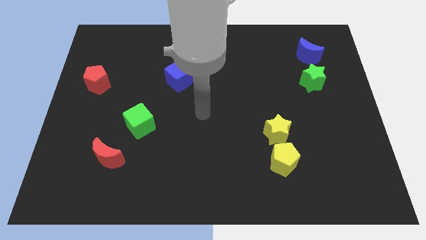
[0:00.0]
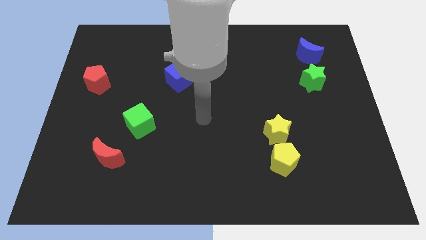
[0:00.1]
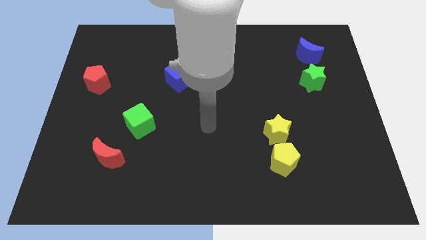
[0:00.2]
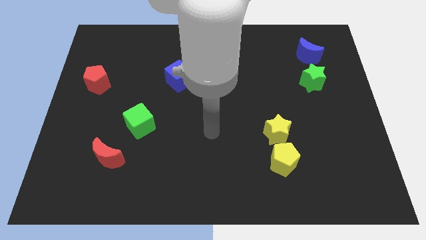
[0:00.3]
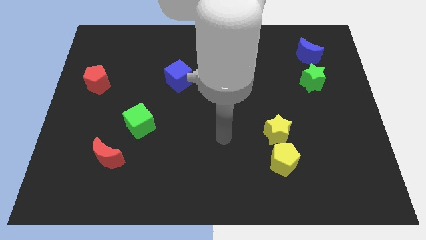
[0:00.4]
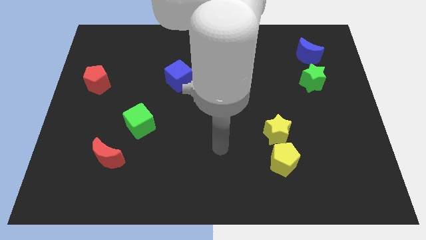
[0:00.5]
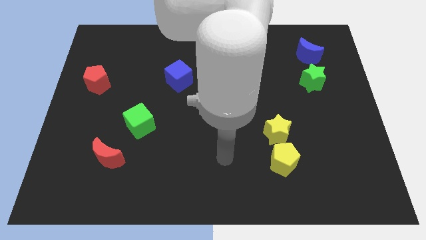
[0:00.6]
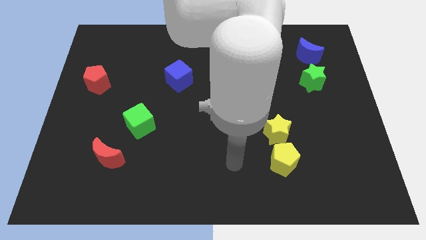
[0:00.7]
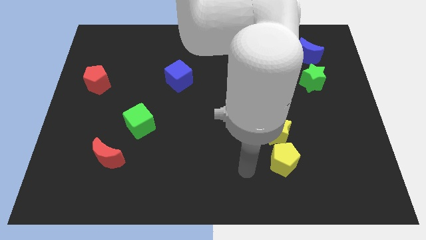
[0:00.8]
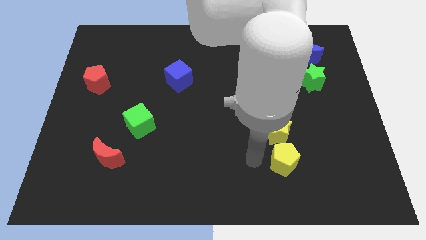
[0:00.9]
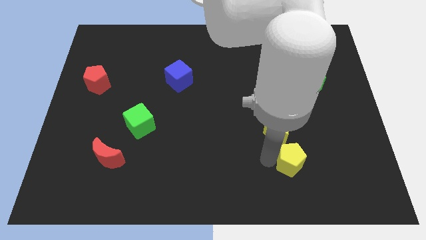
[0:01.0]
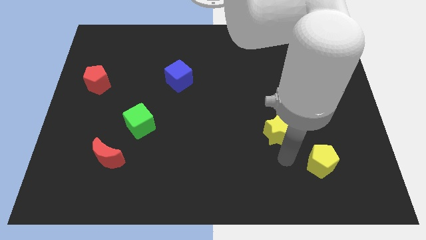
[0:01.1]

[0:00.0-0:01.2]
separate the yellow star from the yellow pentagon

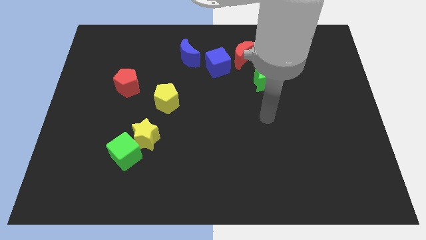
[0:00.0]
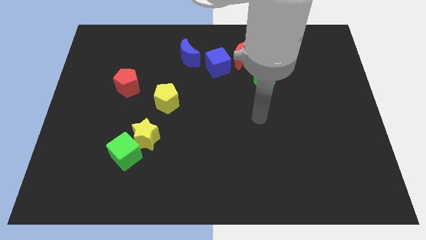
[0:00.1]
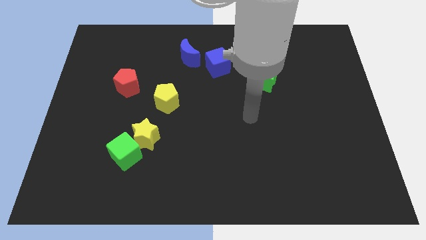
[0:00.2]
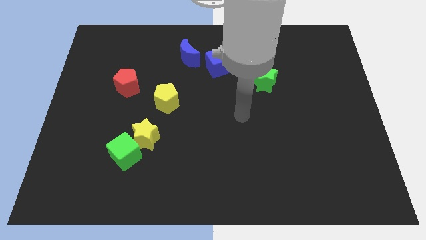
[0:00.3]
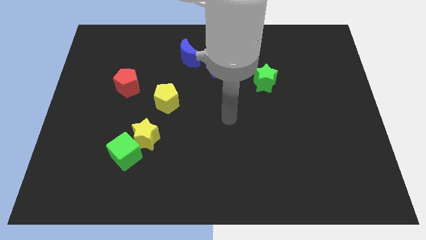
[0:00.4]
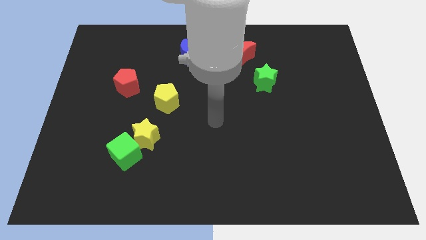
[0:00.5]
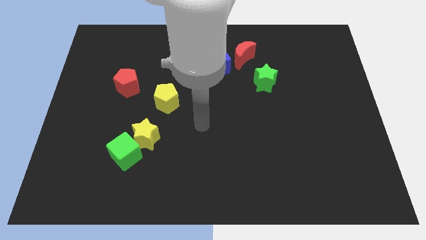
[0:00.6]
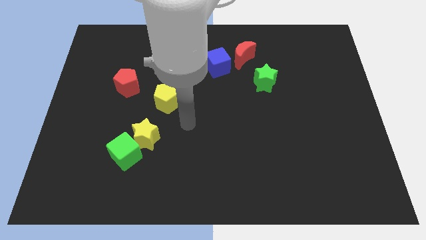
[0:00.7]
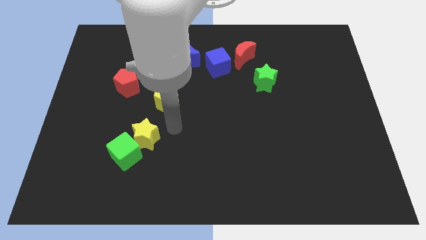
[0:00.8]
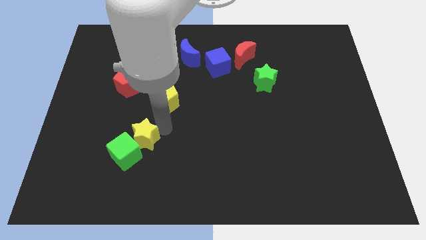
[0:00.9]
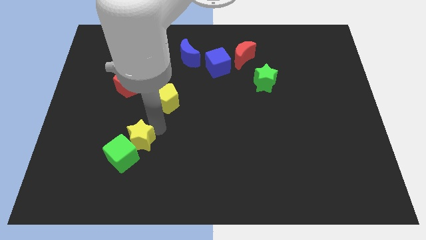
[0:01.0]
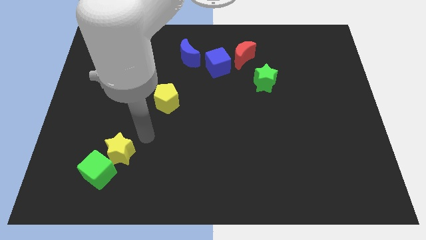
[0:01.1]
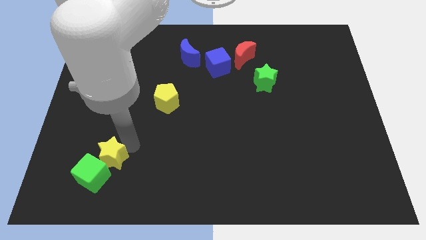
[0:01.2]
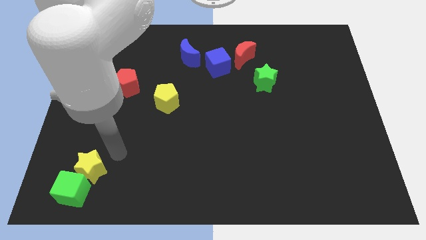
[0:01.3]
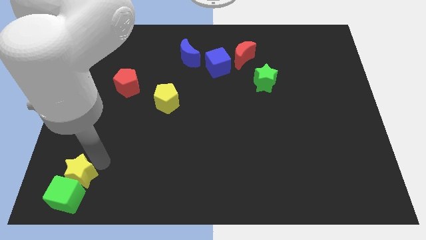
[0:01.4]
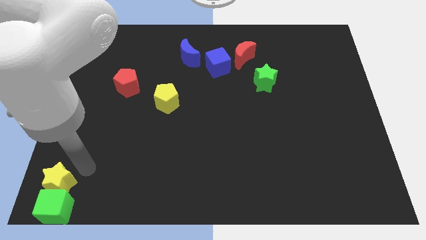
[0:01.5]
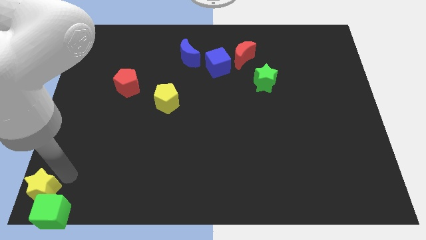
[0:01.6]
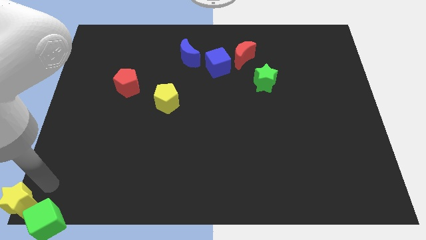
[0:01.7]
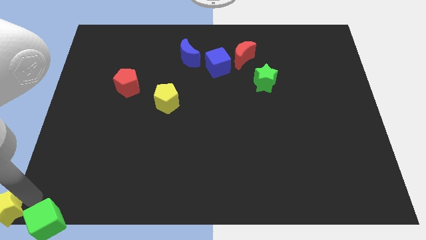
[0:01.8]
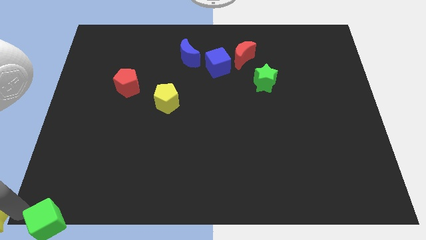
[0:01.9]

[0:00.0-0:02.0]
pull the green cube apart from the yellow star

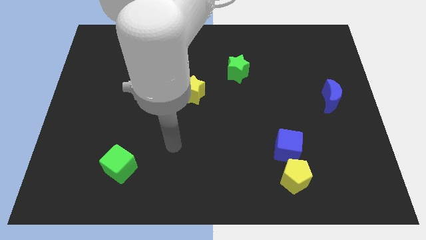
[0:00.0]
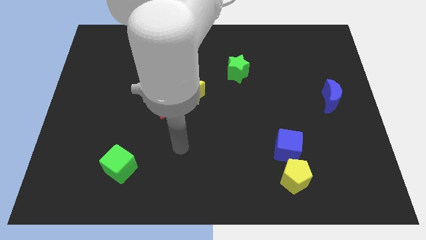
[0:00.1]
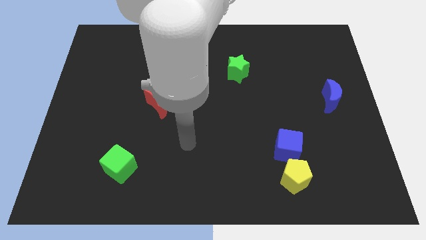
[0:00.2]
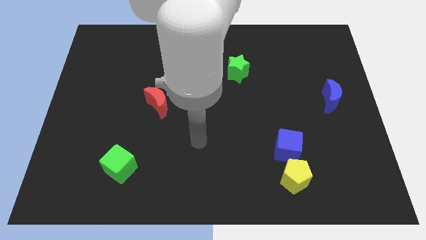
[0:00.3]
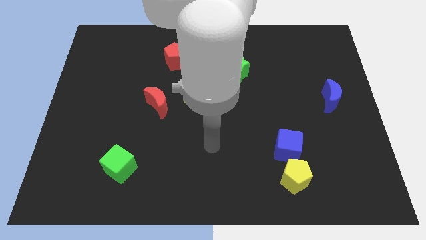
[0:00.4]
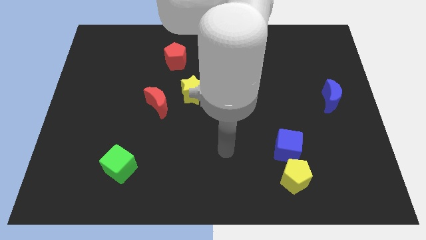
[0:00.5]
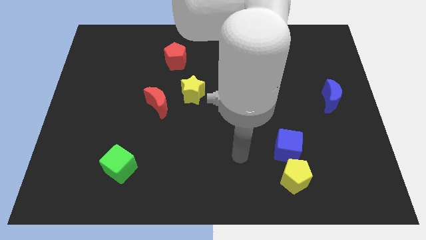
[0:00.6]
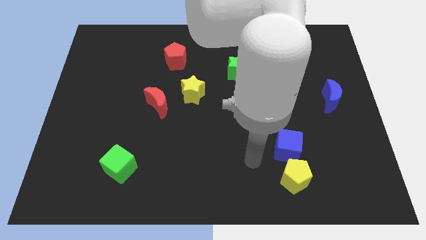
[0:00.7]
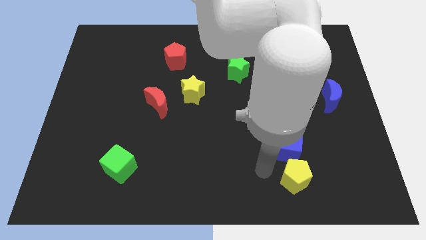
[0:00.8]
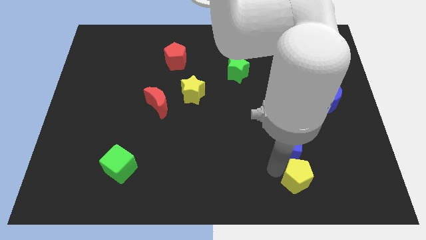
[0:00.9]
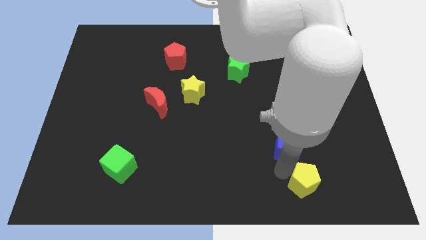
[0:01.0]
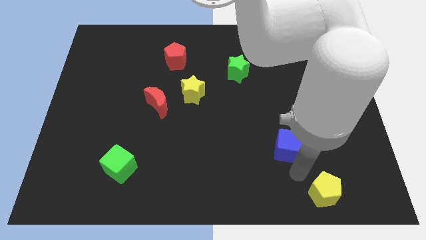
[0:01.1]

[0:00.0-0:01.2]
pull the blue cube apart from the yellow pentagon

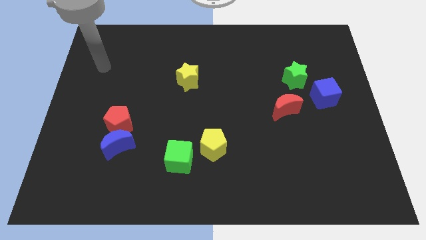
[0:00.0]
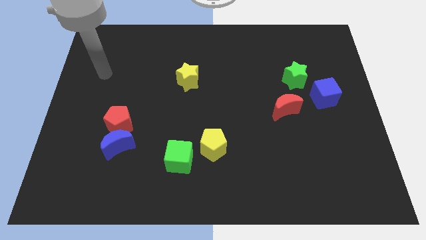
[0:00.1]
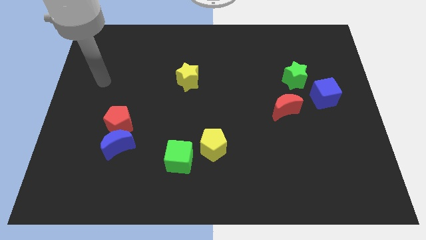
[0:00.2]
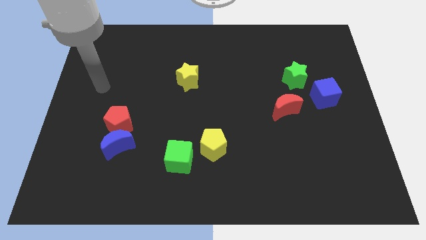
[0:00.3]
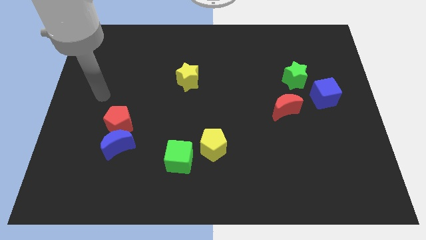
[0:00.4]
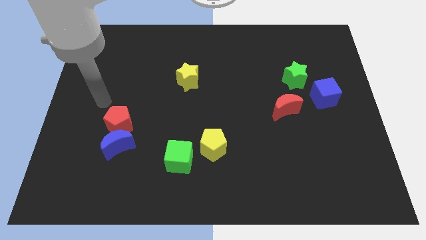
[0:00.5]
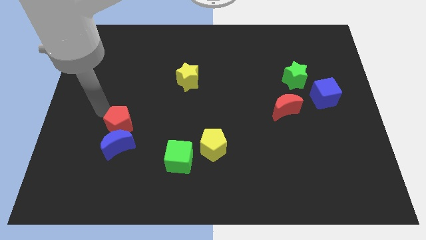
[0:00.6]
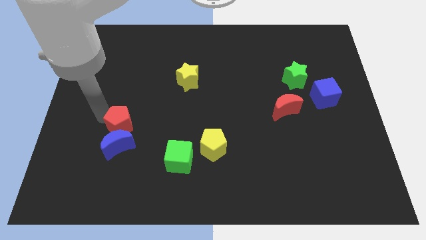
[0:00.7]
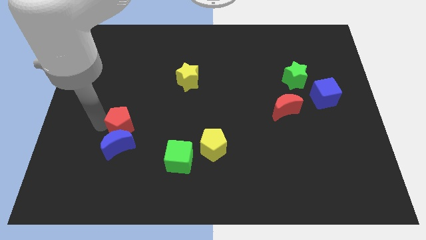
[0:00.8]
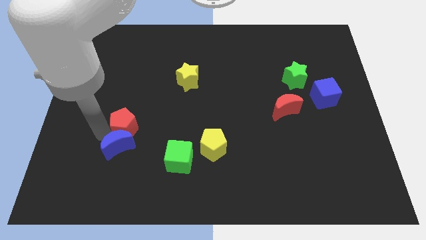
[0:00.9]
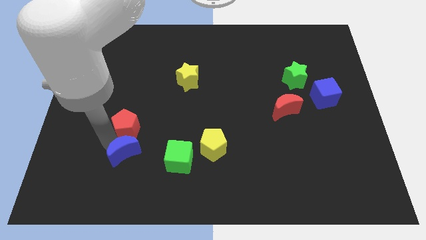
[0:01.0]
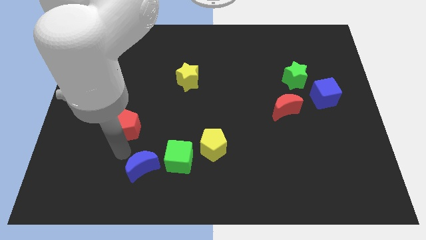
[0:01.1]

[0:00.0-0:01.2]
move the red pentagon away from the blue moon

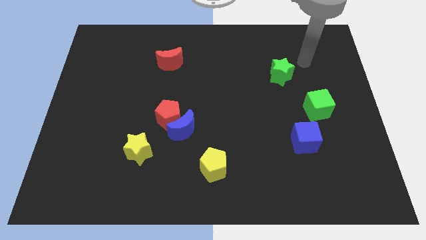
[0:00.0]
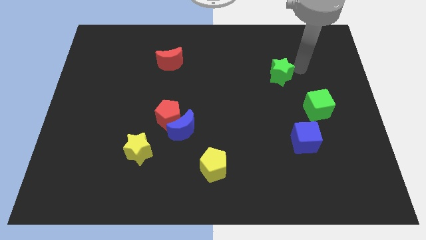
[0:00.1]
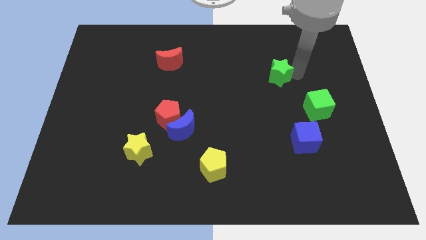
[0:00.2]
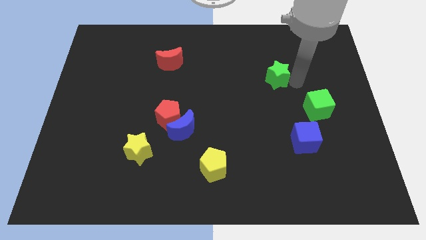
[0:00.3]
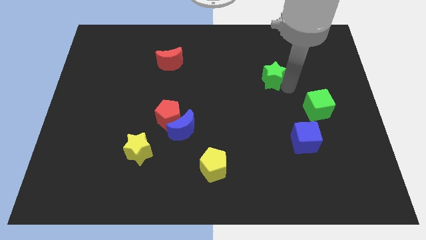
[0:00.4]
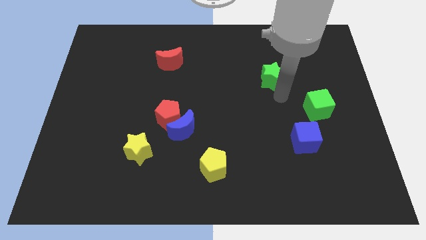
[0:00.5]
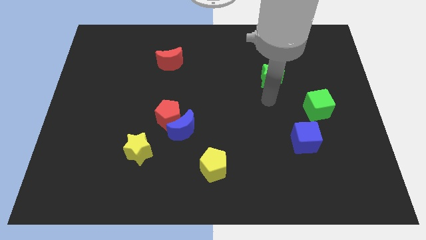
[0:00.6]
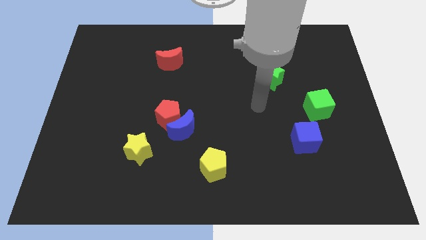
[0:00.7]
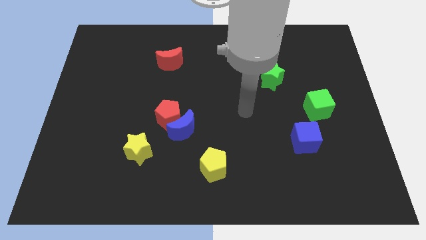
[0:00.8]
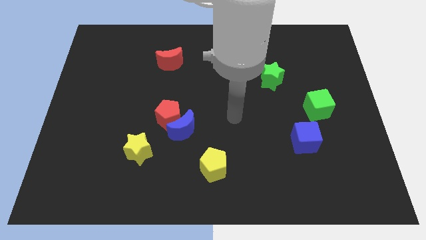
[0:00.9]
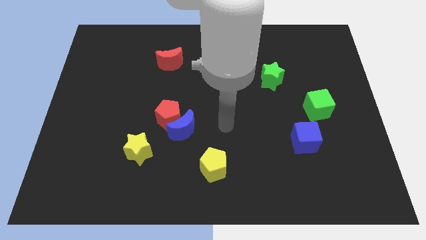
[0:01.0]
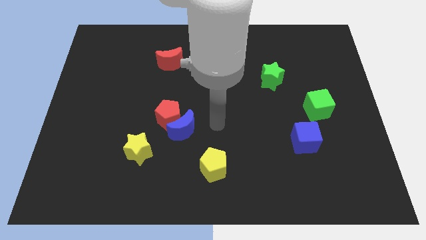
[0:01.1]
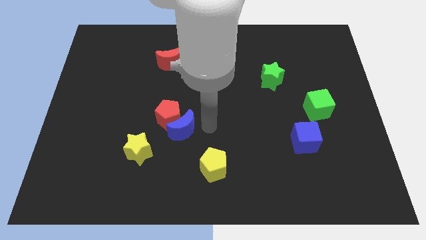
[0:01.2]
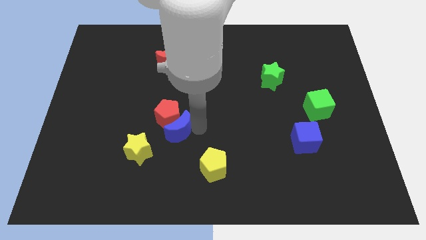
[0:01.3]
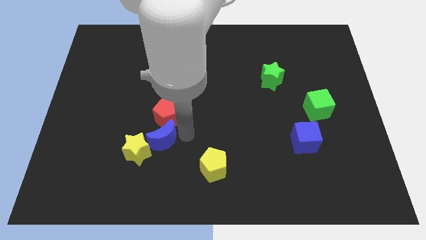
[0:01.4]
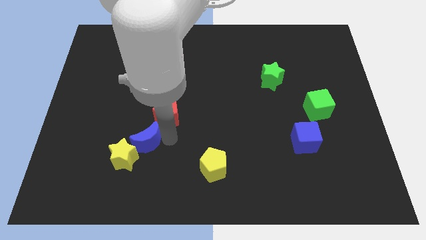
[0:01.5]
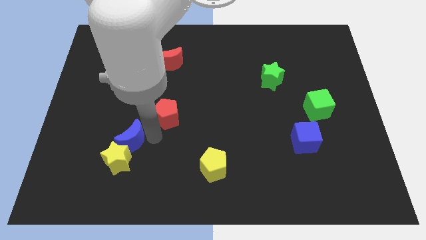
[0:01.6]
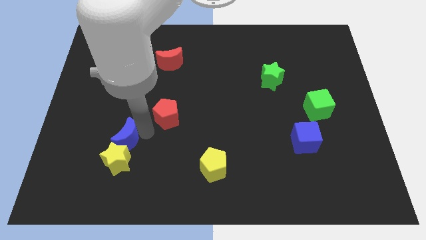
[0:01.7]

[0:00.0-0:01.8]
separate the red pentagon from the blue moon

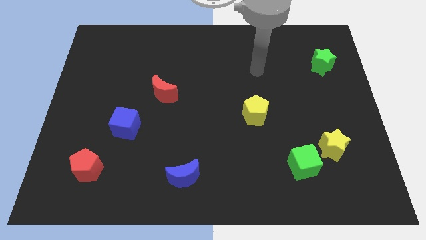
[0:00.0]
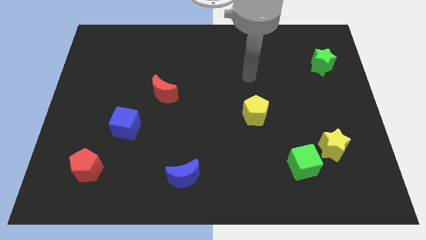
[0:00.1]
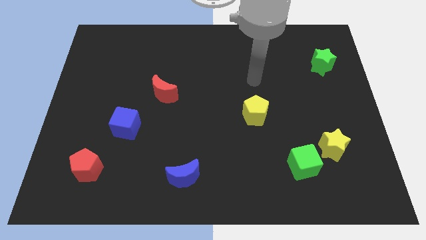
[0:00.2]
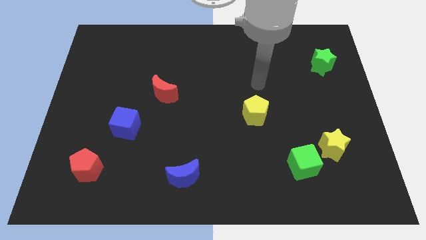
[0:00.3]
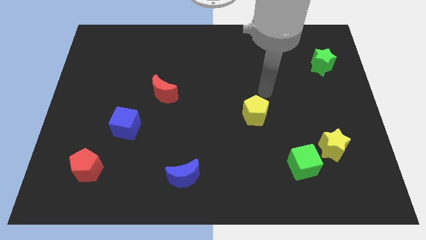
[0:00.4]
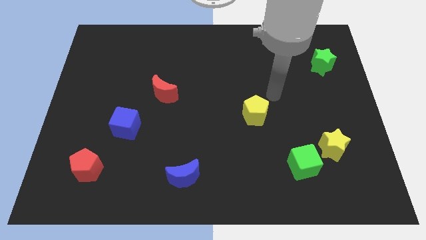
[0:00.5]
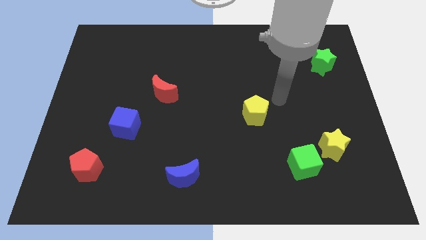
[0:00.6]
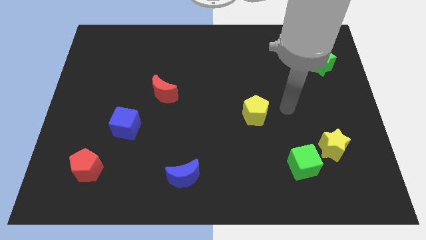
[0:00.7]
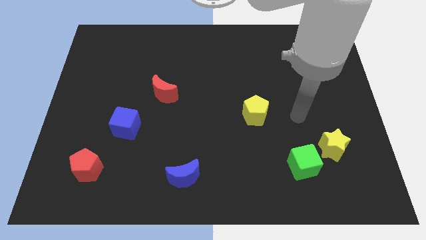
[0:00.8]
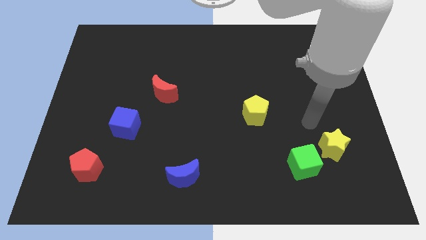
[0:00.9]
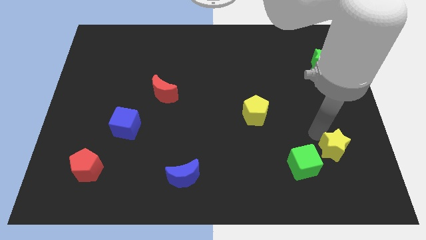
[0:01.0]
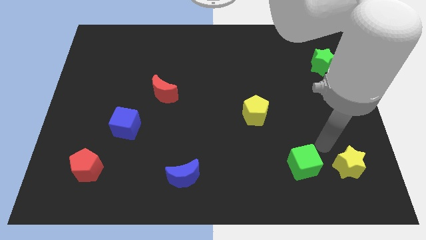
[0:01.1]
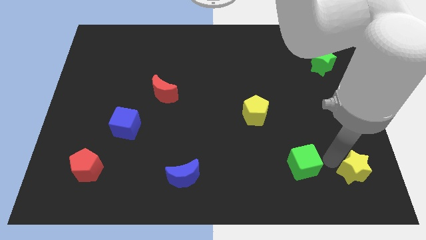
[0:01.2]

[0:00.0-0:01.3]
separate the green cube from the yellow star

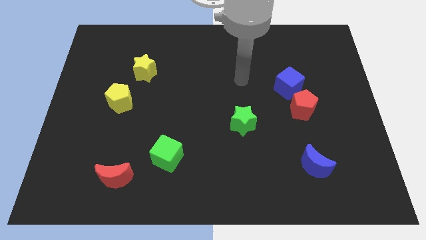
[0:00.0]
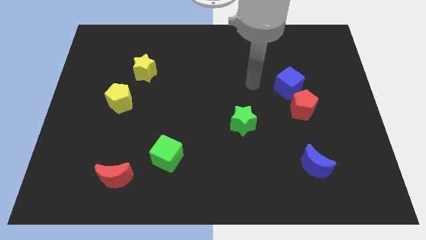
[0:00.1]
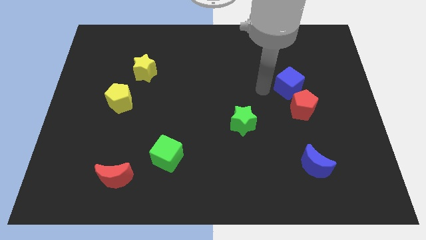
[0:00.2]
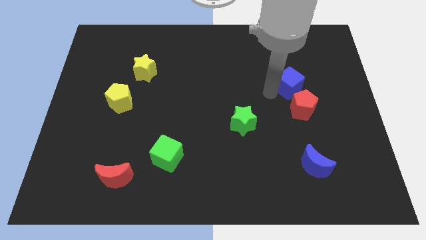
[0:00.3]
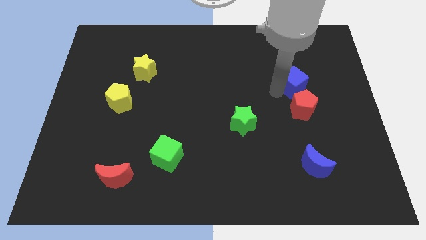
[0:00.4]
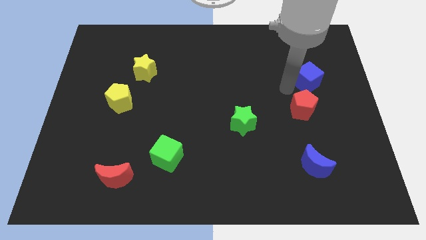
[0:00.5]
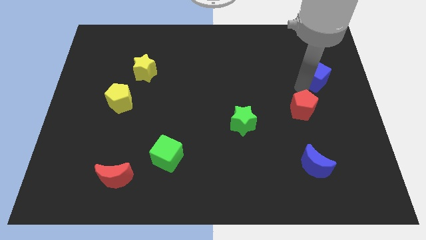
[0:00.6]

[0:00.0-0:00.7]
separate the red pentagon from the blue cube

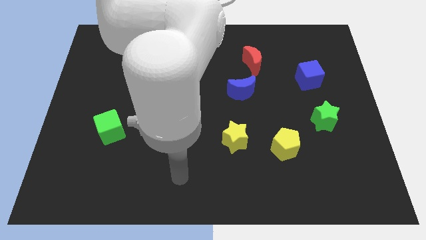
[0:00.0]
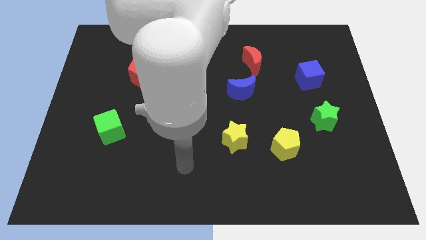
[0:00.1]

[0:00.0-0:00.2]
move the red moon away from the blue moon
